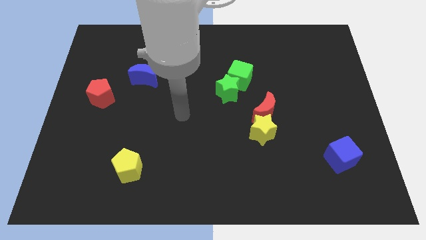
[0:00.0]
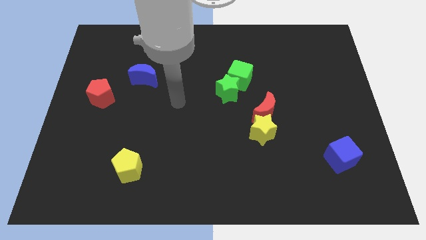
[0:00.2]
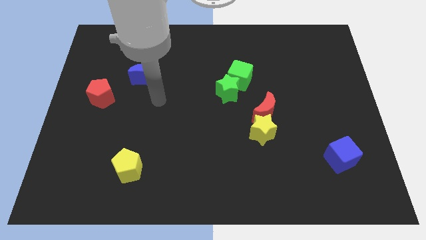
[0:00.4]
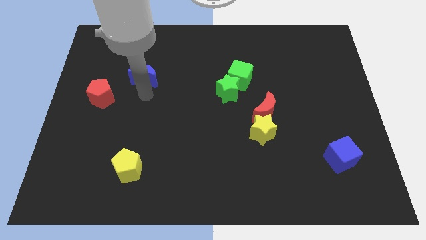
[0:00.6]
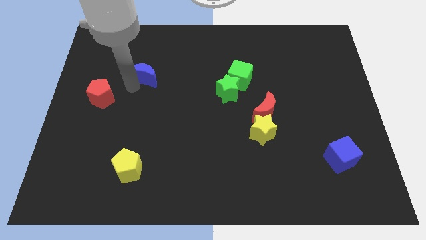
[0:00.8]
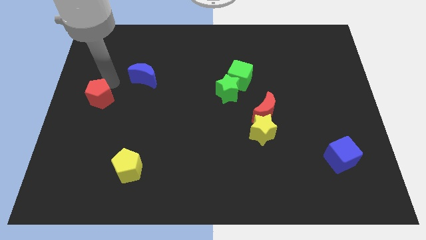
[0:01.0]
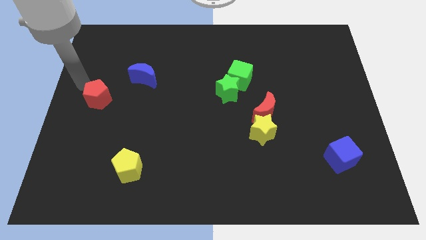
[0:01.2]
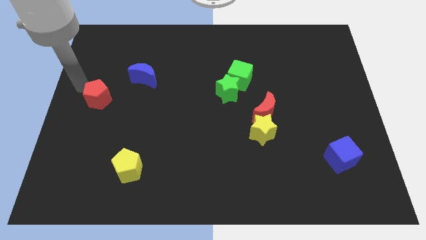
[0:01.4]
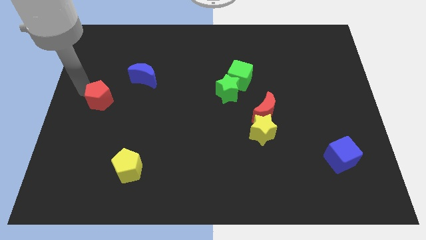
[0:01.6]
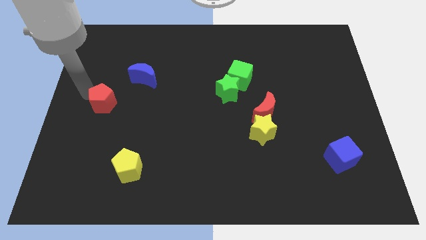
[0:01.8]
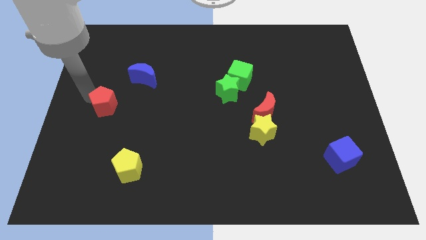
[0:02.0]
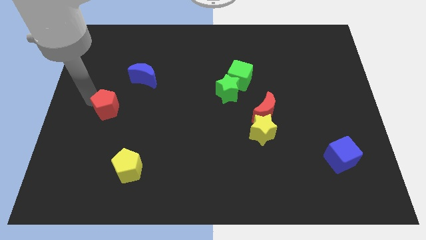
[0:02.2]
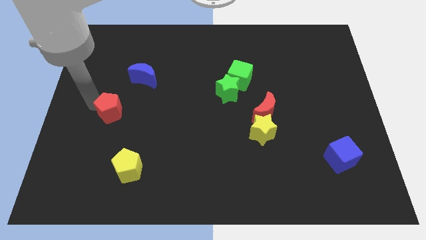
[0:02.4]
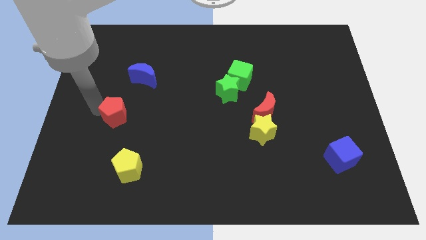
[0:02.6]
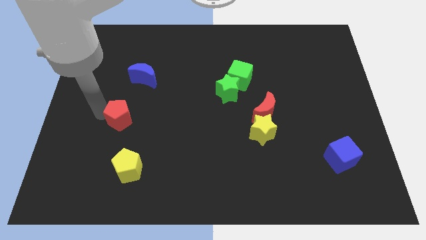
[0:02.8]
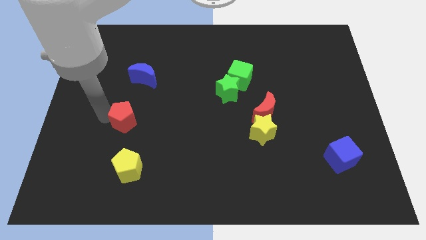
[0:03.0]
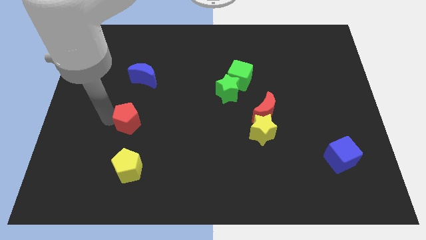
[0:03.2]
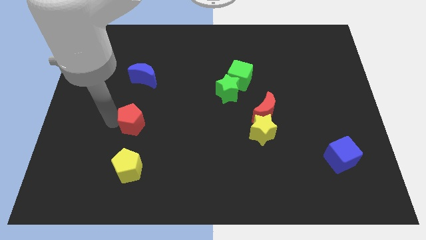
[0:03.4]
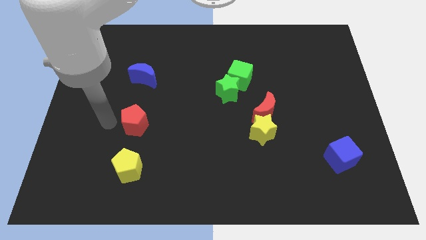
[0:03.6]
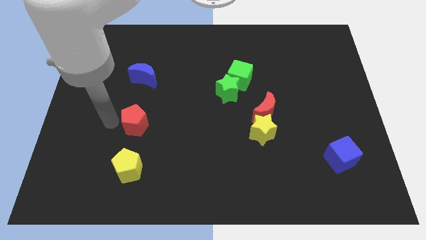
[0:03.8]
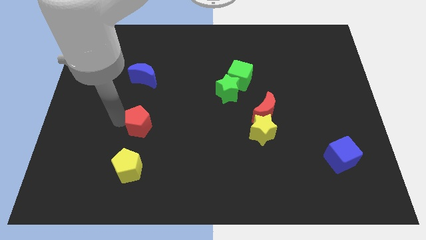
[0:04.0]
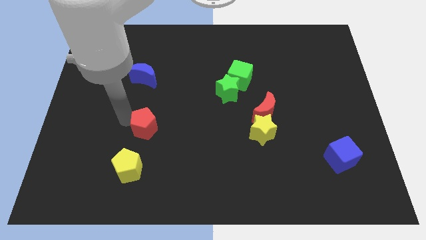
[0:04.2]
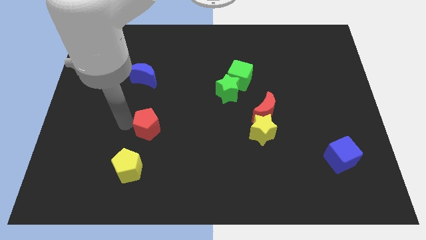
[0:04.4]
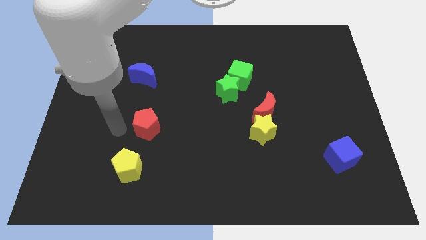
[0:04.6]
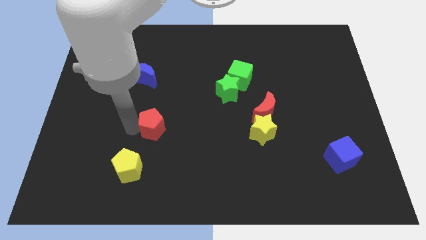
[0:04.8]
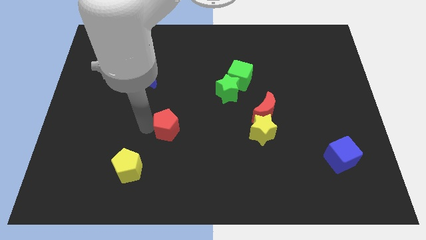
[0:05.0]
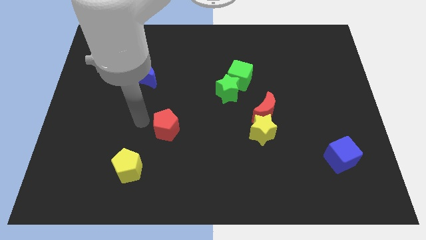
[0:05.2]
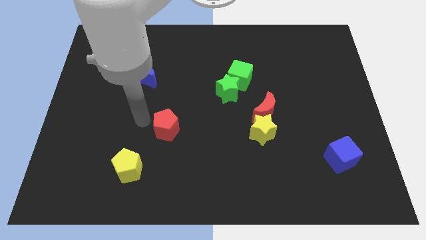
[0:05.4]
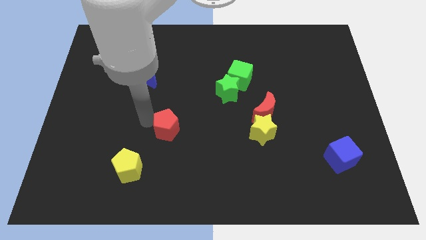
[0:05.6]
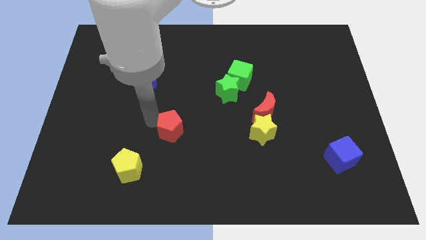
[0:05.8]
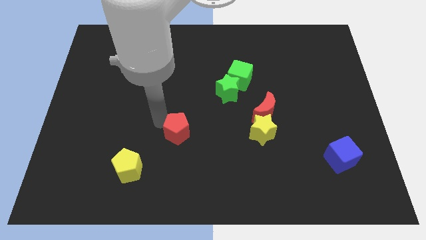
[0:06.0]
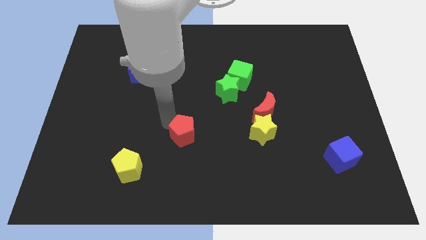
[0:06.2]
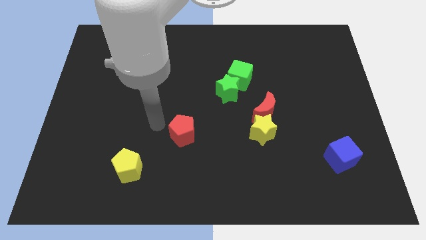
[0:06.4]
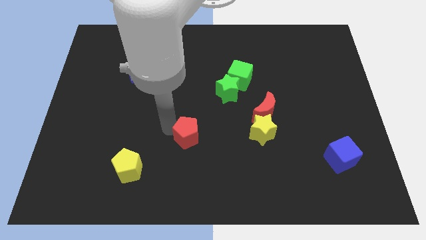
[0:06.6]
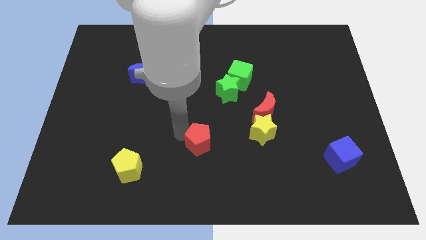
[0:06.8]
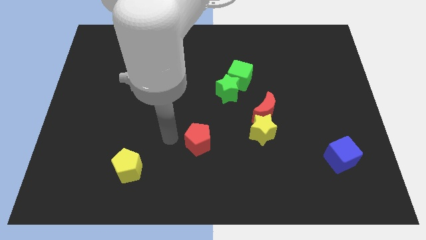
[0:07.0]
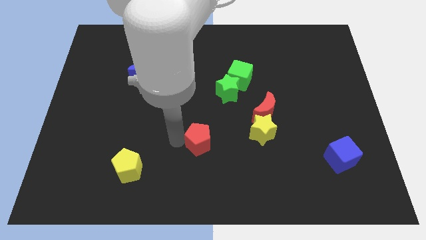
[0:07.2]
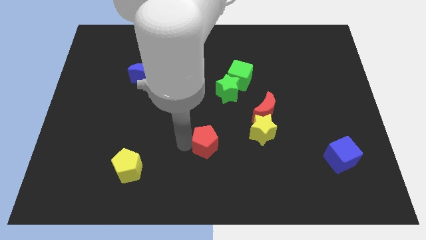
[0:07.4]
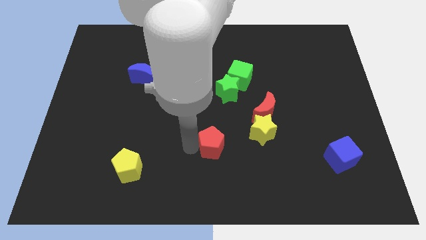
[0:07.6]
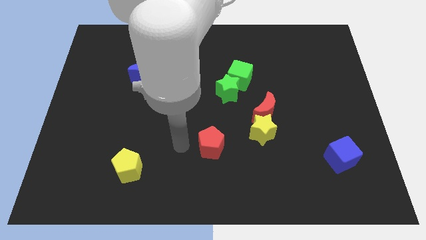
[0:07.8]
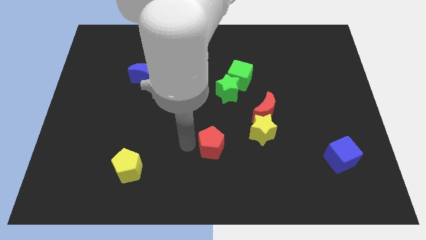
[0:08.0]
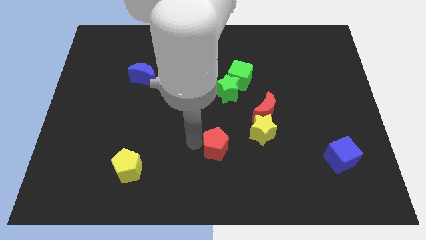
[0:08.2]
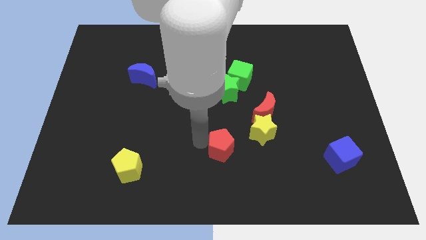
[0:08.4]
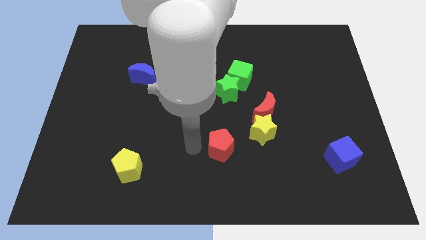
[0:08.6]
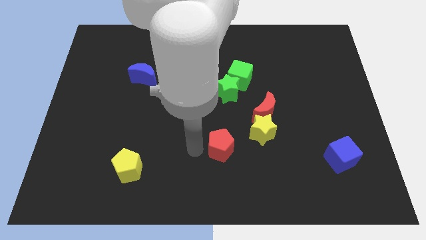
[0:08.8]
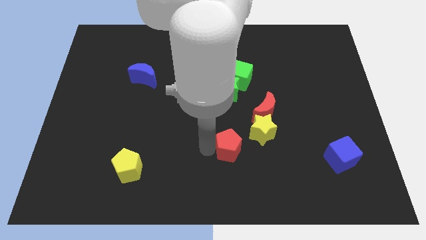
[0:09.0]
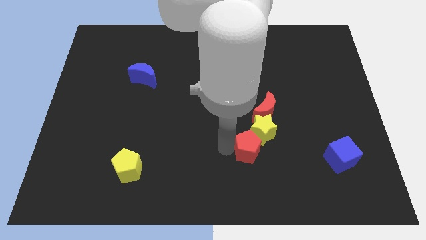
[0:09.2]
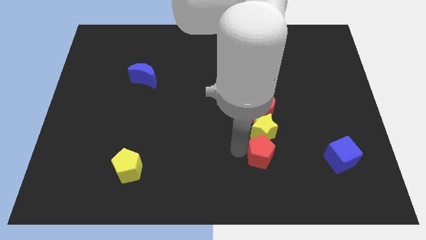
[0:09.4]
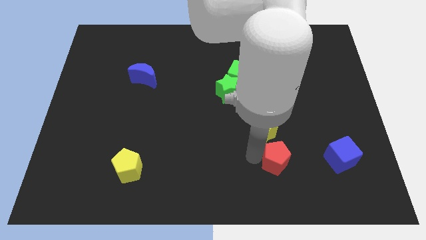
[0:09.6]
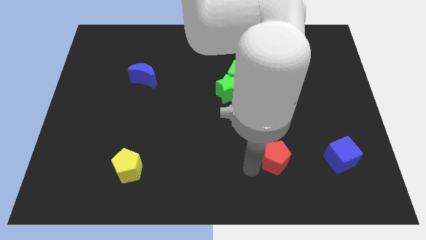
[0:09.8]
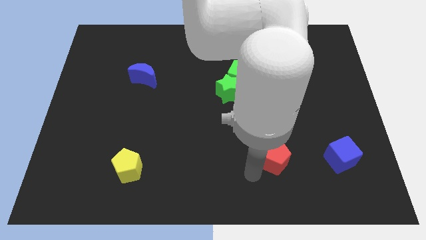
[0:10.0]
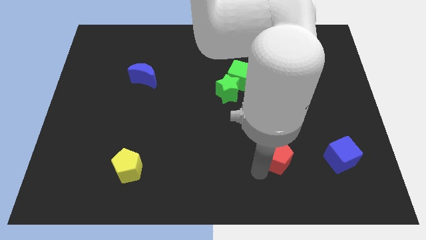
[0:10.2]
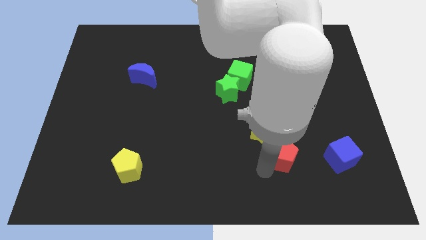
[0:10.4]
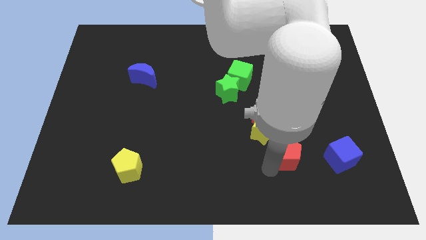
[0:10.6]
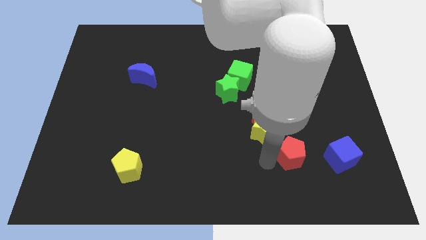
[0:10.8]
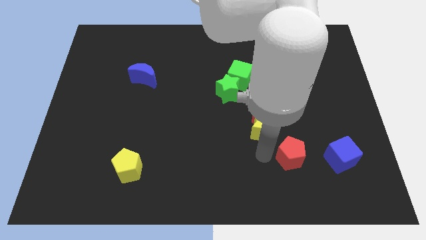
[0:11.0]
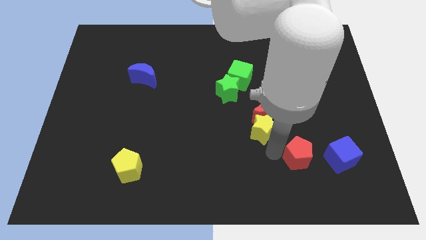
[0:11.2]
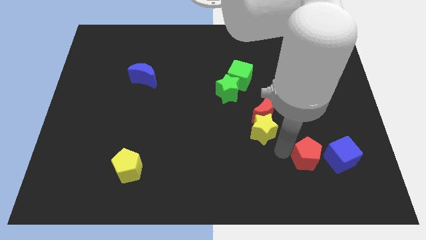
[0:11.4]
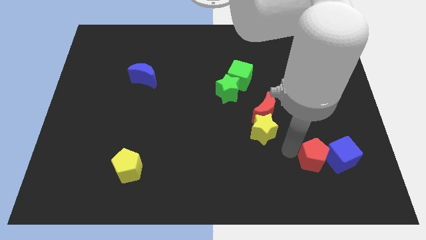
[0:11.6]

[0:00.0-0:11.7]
move the red pentagon towards the blue cube

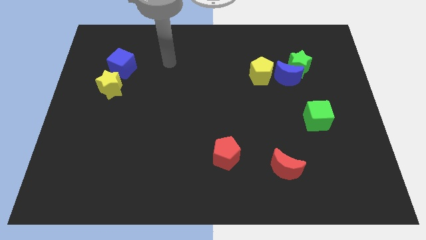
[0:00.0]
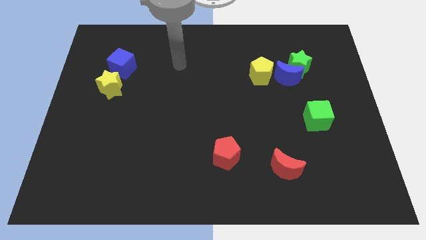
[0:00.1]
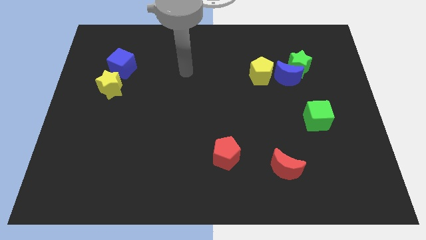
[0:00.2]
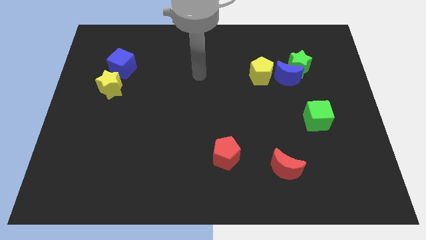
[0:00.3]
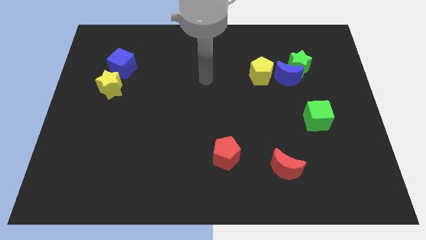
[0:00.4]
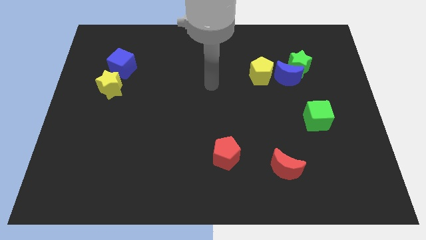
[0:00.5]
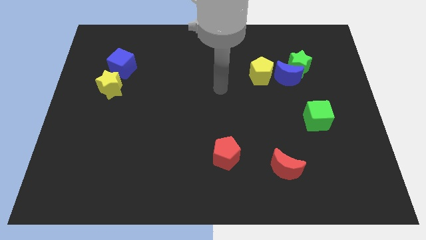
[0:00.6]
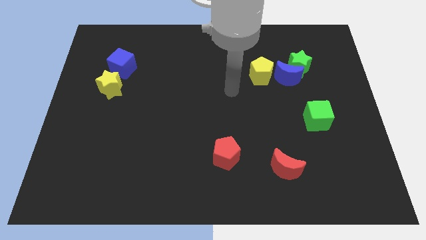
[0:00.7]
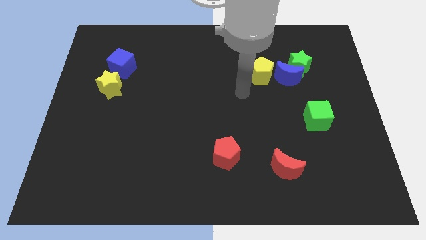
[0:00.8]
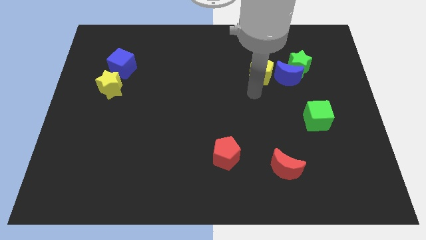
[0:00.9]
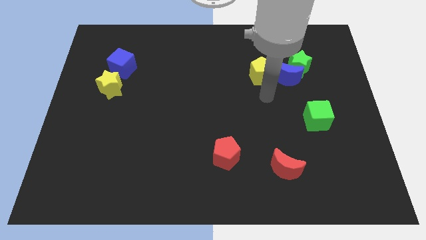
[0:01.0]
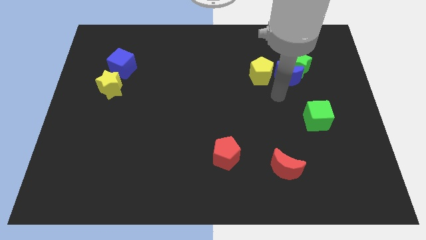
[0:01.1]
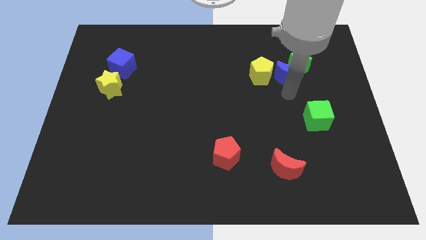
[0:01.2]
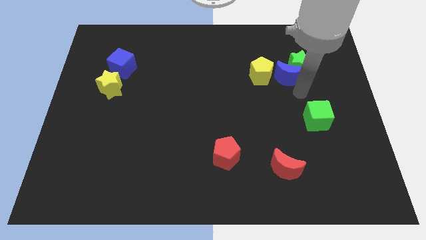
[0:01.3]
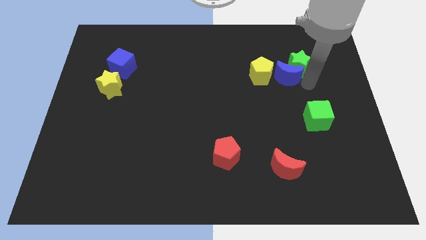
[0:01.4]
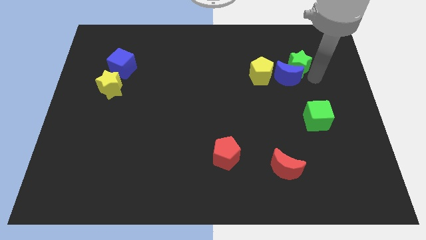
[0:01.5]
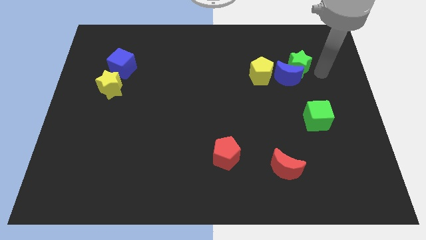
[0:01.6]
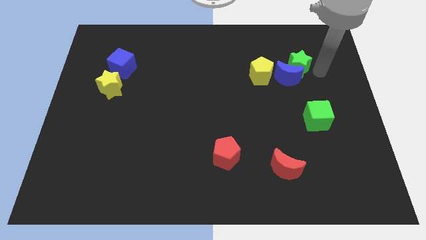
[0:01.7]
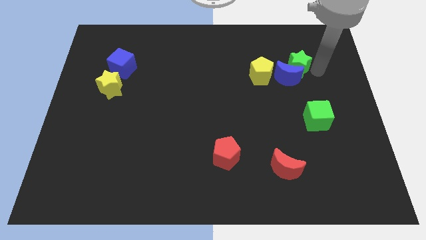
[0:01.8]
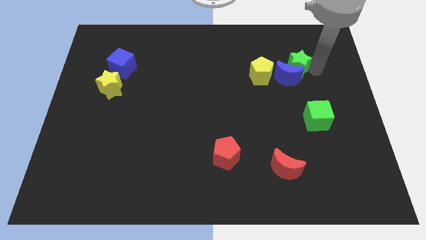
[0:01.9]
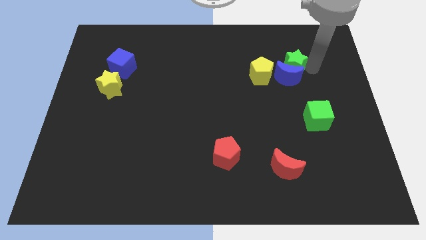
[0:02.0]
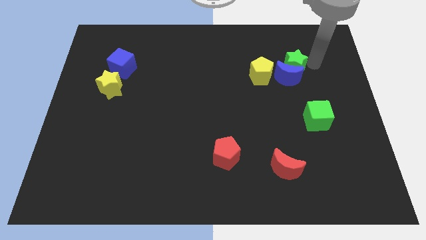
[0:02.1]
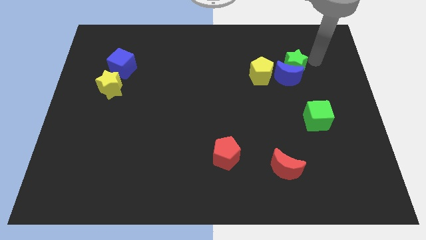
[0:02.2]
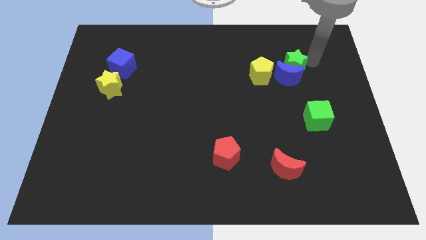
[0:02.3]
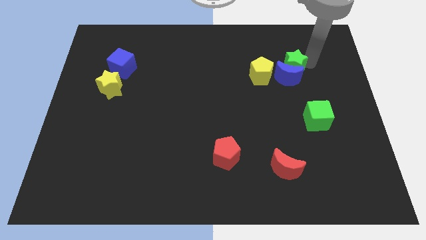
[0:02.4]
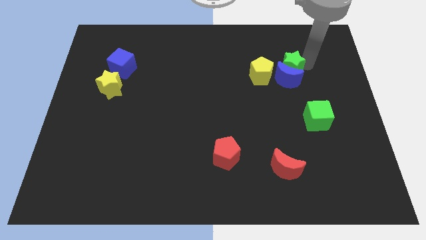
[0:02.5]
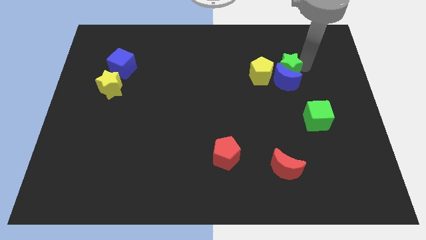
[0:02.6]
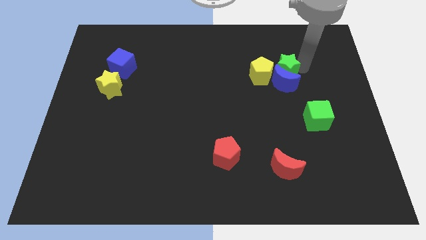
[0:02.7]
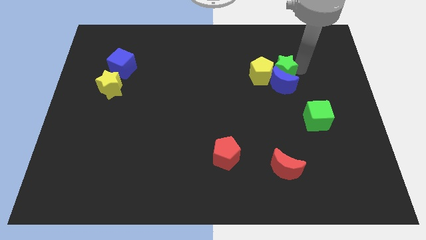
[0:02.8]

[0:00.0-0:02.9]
slide the green star close to the yellow pentagon
